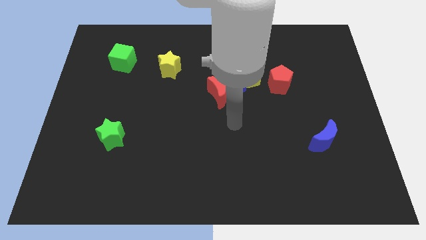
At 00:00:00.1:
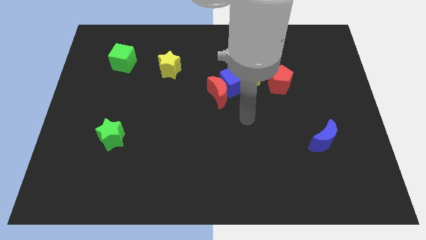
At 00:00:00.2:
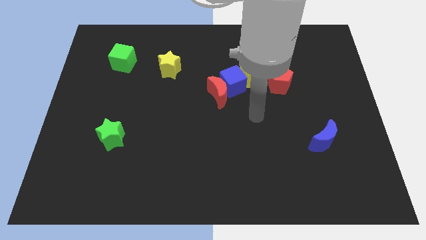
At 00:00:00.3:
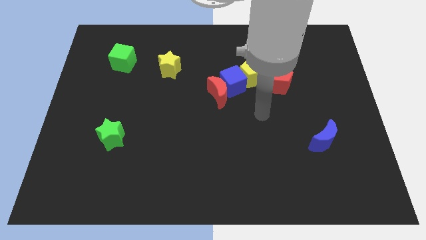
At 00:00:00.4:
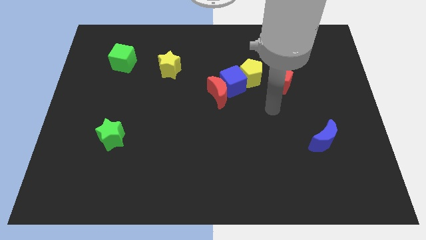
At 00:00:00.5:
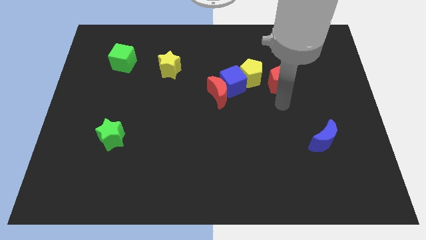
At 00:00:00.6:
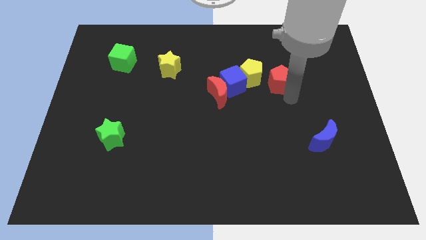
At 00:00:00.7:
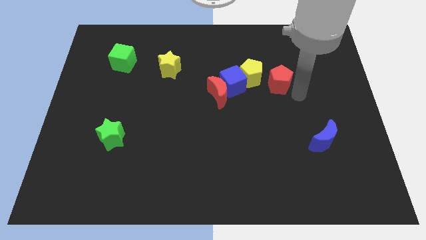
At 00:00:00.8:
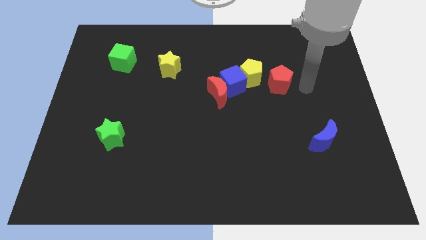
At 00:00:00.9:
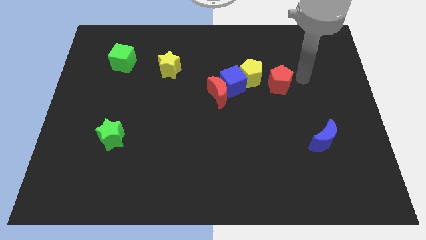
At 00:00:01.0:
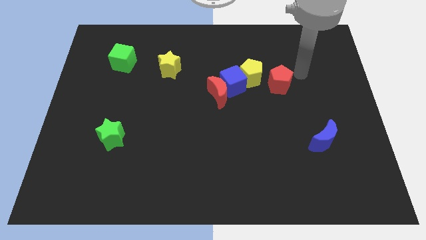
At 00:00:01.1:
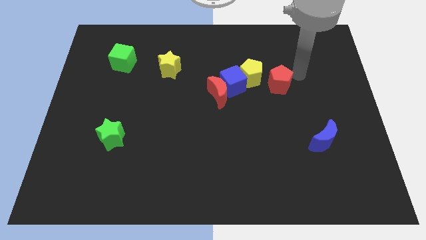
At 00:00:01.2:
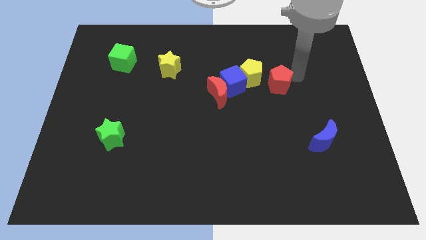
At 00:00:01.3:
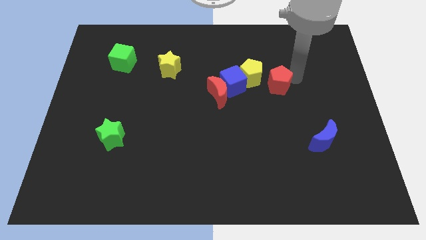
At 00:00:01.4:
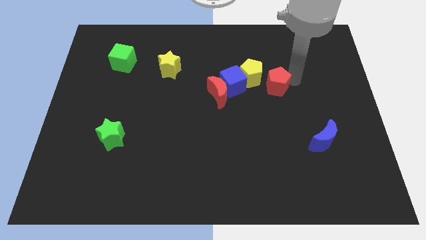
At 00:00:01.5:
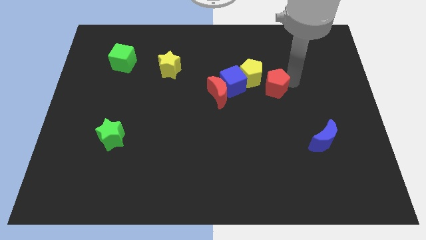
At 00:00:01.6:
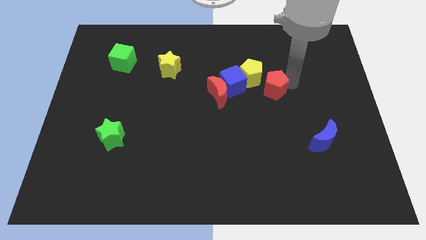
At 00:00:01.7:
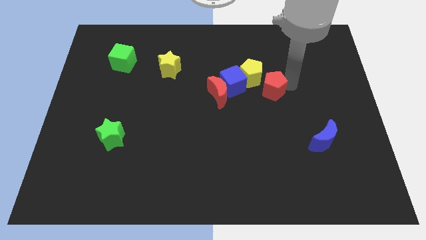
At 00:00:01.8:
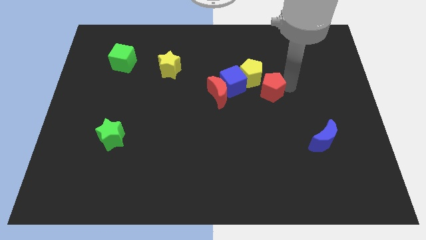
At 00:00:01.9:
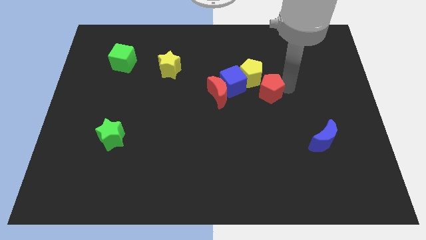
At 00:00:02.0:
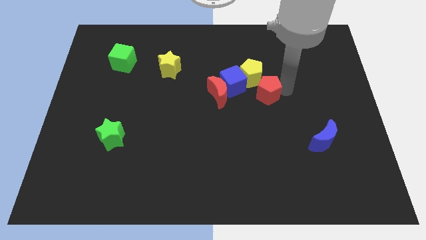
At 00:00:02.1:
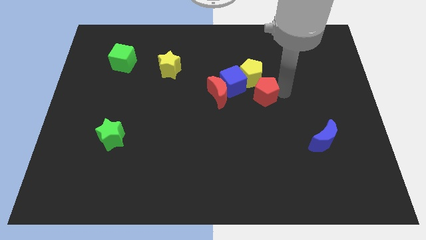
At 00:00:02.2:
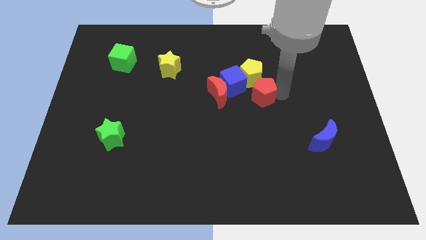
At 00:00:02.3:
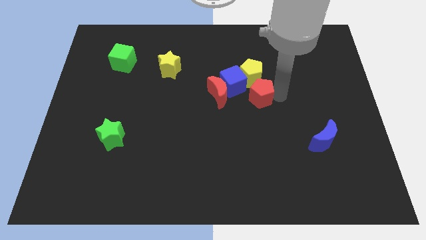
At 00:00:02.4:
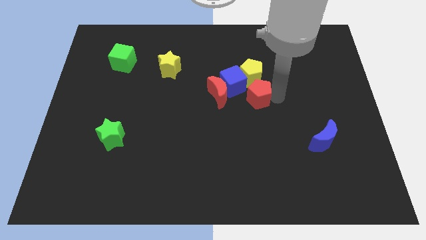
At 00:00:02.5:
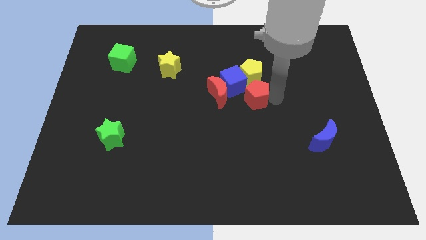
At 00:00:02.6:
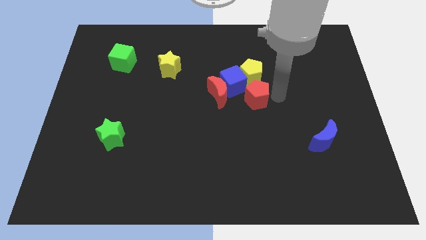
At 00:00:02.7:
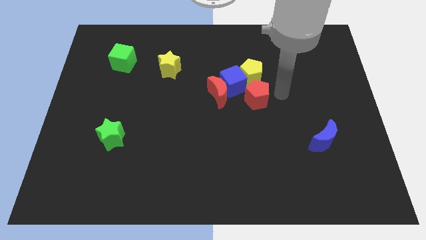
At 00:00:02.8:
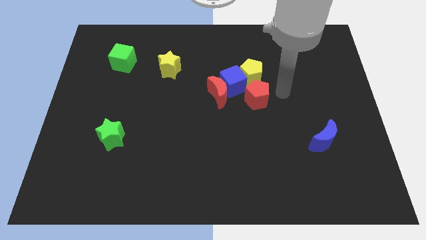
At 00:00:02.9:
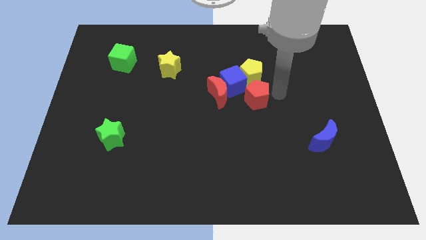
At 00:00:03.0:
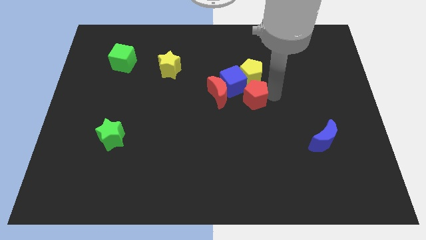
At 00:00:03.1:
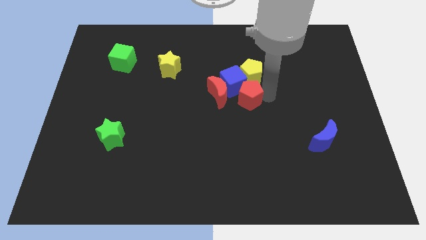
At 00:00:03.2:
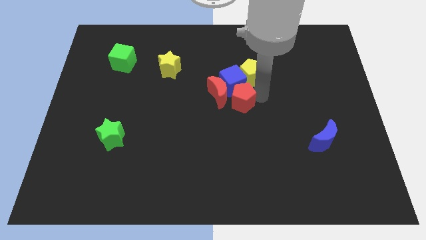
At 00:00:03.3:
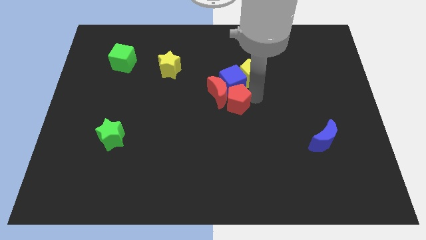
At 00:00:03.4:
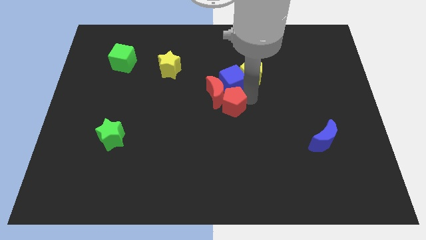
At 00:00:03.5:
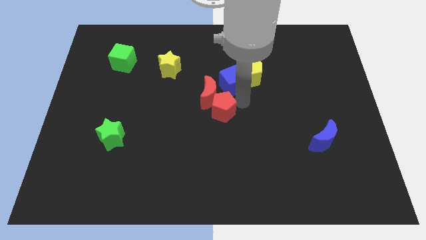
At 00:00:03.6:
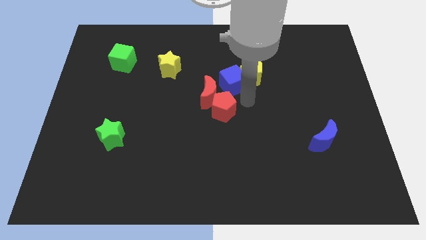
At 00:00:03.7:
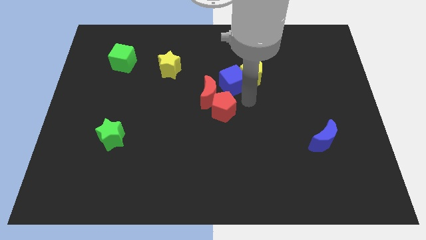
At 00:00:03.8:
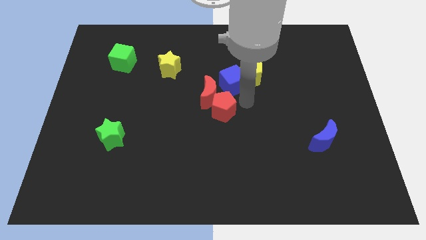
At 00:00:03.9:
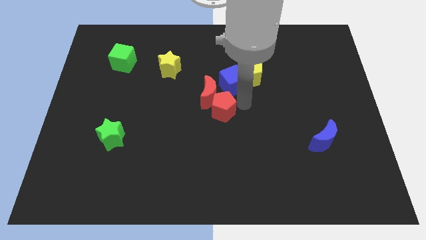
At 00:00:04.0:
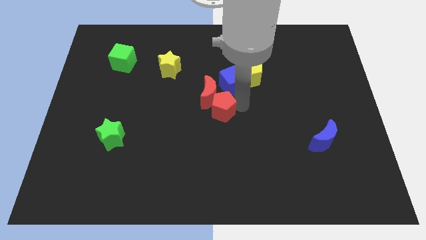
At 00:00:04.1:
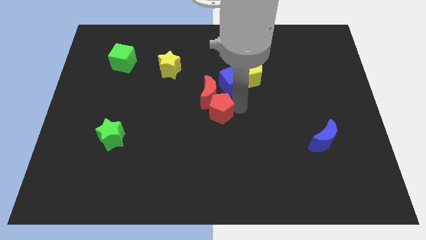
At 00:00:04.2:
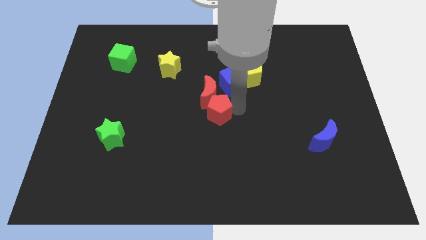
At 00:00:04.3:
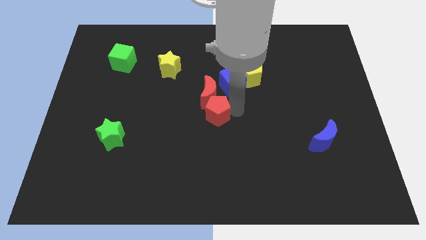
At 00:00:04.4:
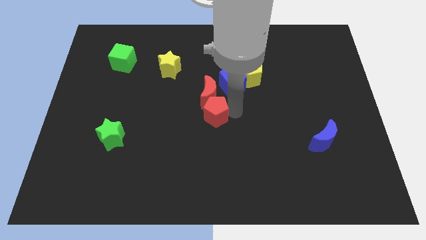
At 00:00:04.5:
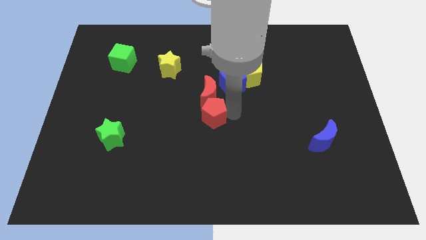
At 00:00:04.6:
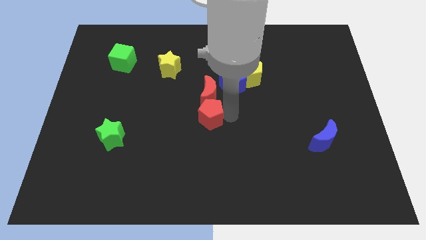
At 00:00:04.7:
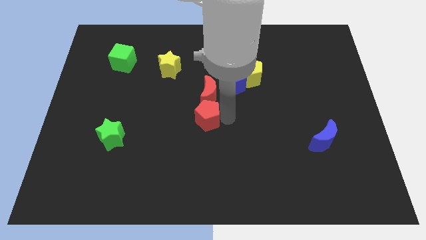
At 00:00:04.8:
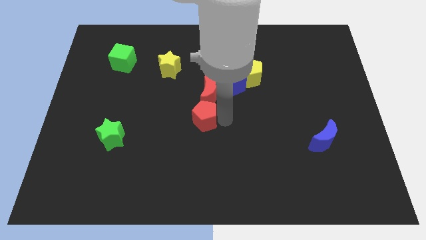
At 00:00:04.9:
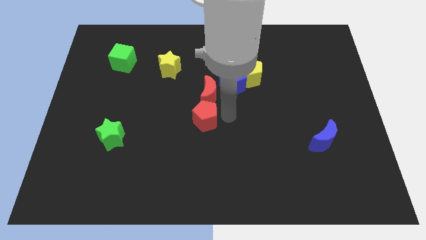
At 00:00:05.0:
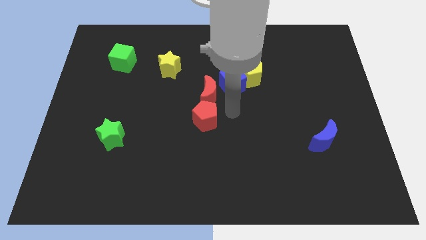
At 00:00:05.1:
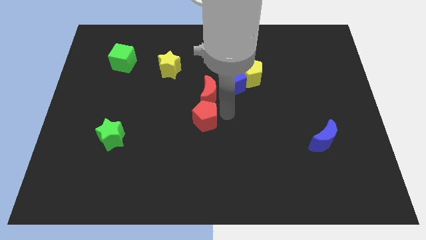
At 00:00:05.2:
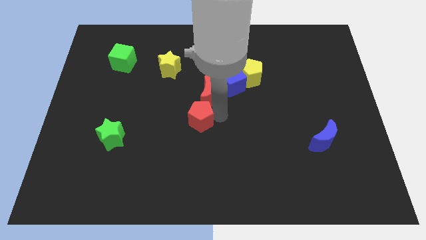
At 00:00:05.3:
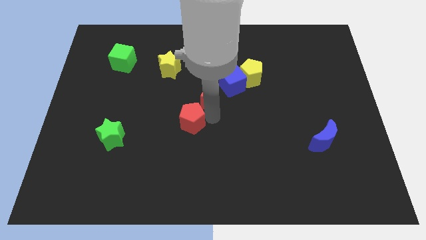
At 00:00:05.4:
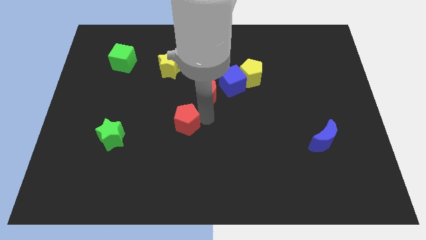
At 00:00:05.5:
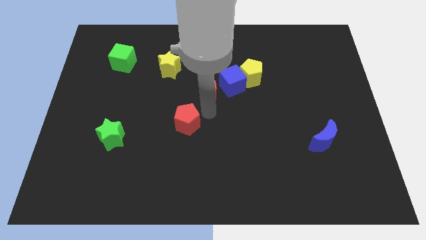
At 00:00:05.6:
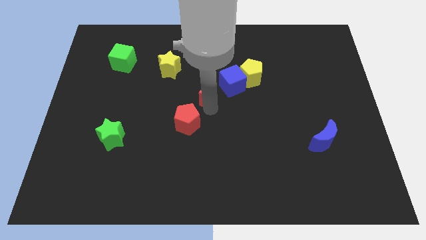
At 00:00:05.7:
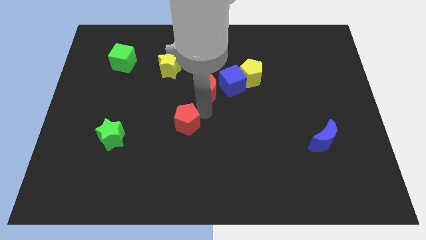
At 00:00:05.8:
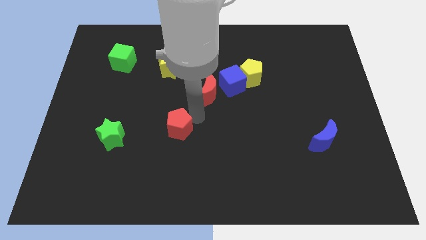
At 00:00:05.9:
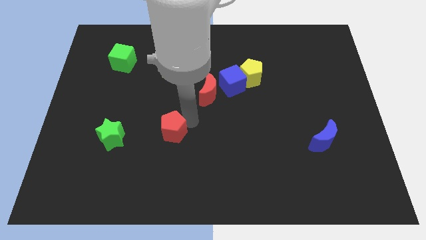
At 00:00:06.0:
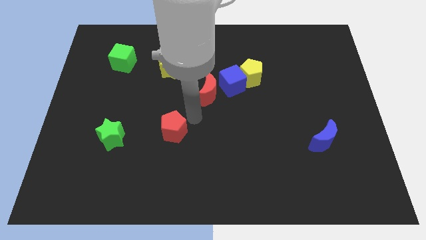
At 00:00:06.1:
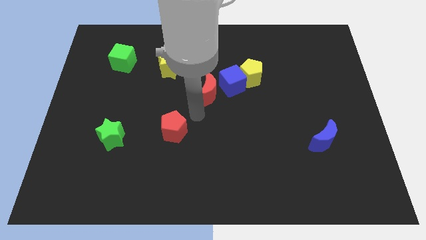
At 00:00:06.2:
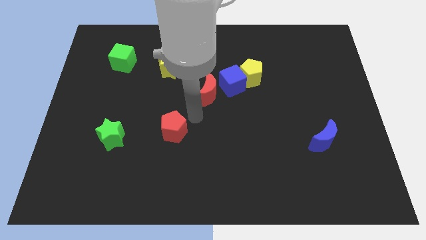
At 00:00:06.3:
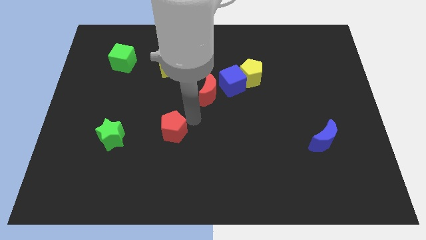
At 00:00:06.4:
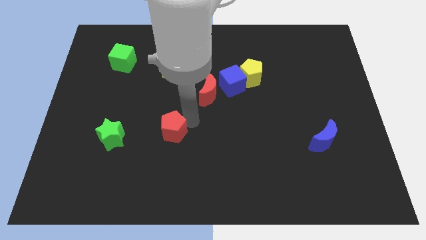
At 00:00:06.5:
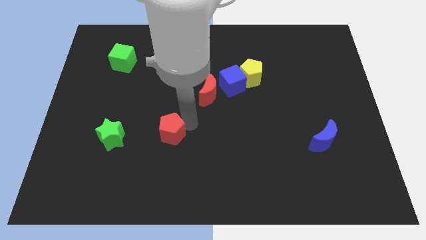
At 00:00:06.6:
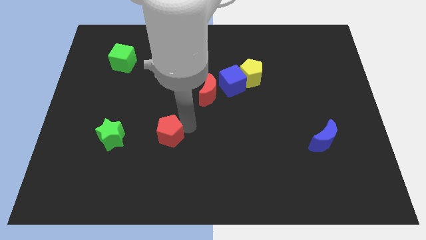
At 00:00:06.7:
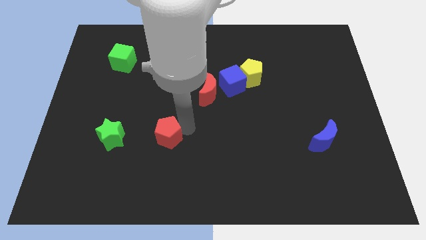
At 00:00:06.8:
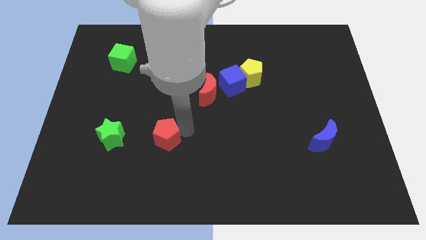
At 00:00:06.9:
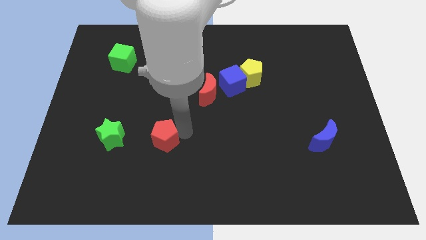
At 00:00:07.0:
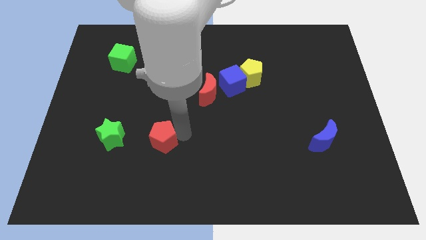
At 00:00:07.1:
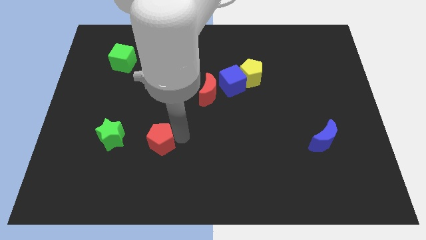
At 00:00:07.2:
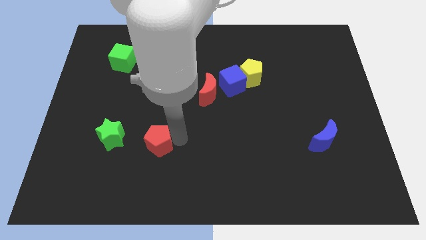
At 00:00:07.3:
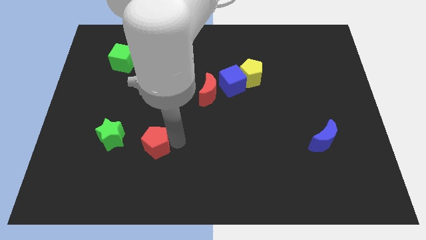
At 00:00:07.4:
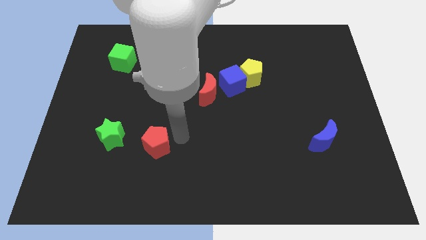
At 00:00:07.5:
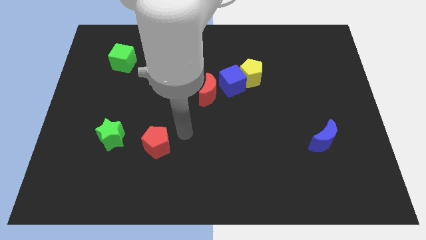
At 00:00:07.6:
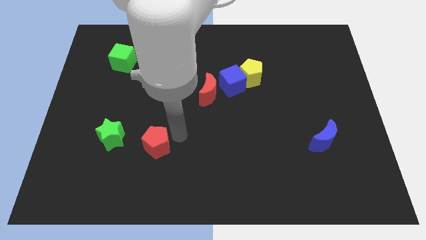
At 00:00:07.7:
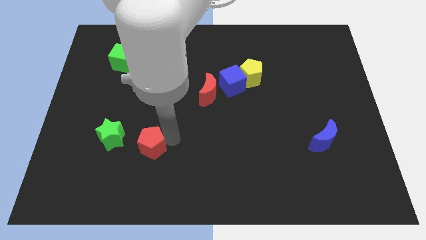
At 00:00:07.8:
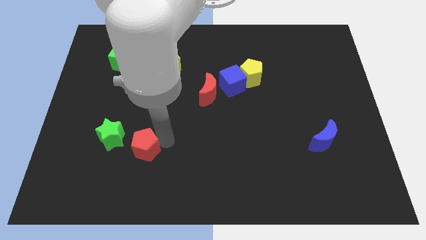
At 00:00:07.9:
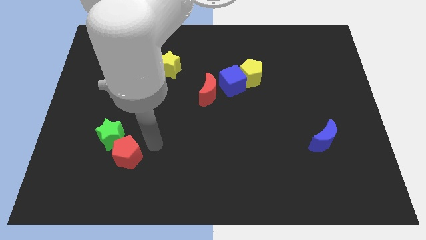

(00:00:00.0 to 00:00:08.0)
push the red pentagon to the bottom side of the green star
